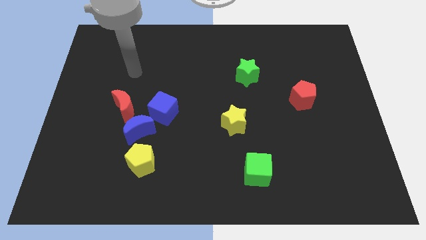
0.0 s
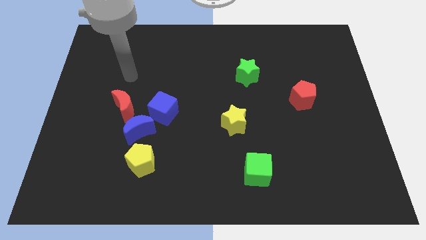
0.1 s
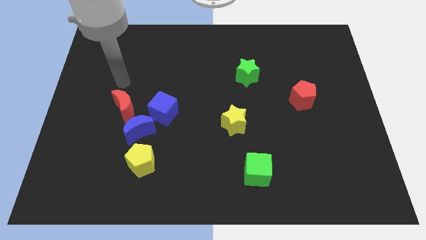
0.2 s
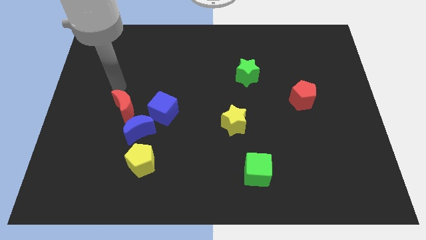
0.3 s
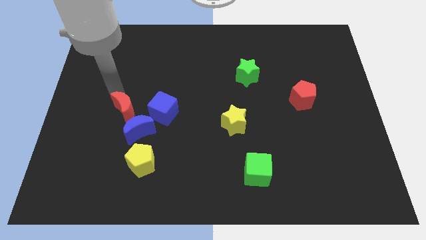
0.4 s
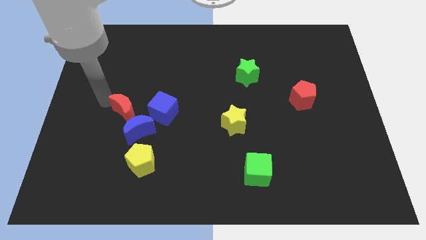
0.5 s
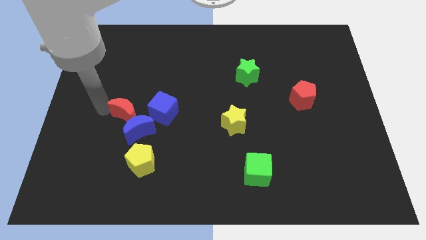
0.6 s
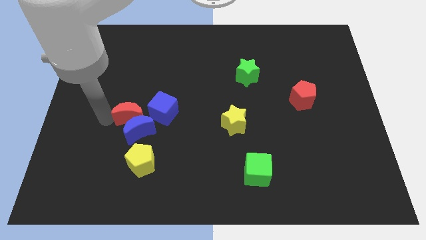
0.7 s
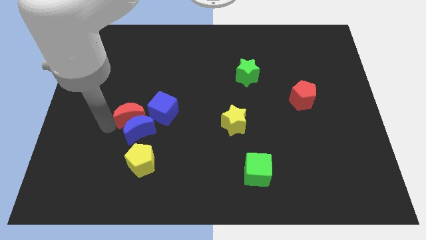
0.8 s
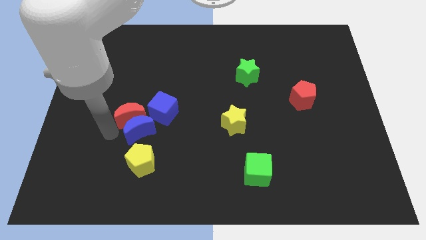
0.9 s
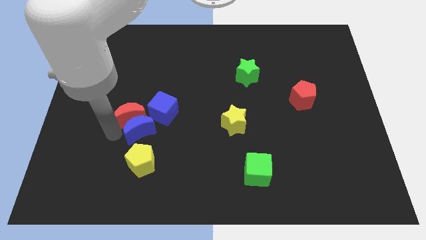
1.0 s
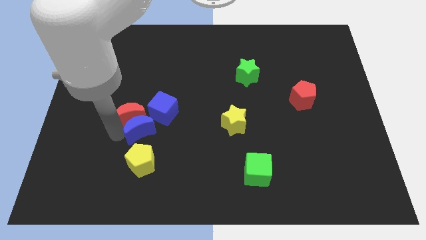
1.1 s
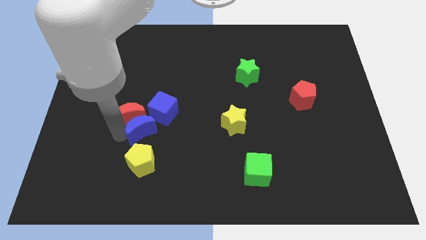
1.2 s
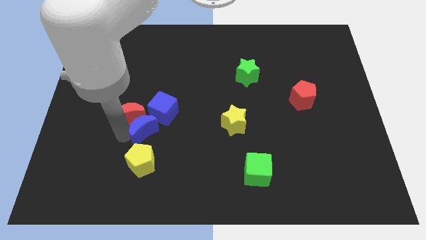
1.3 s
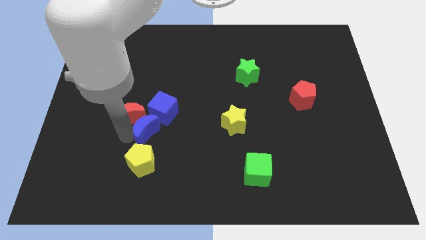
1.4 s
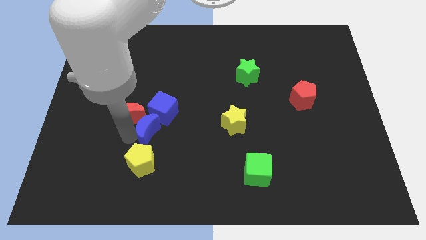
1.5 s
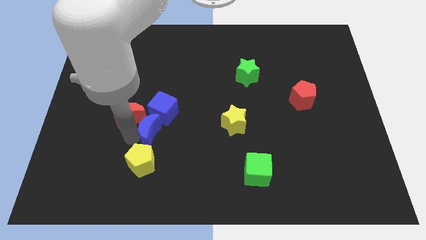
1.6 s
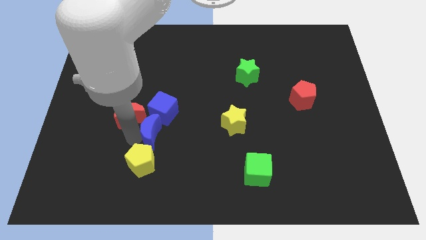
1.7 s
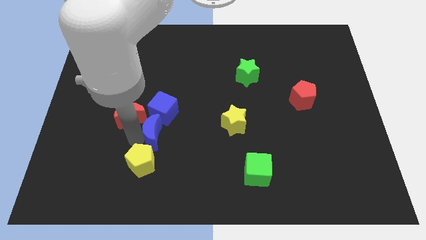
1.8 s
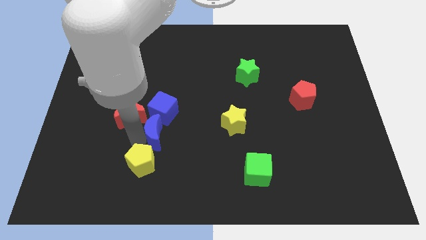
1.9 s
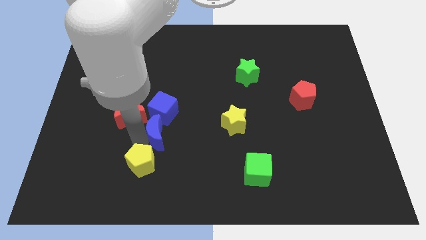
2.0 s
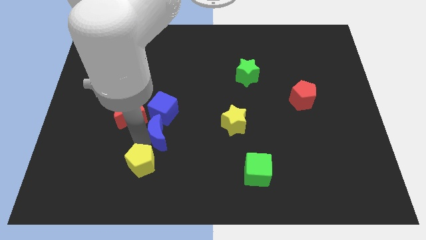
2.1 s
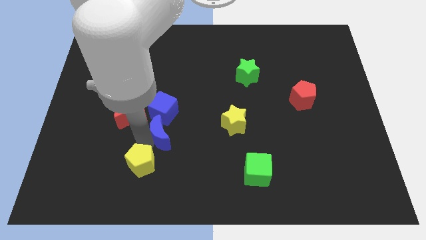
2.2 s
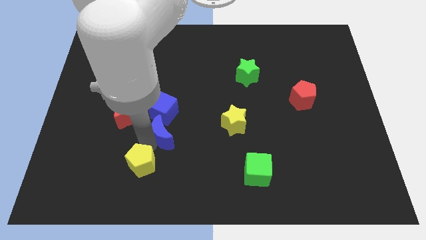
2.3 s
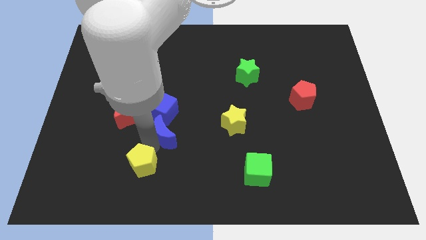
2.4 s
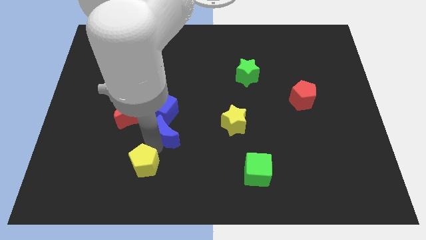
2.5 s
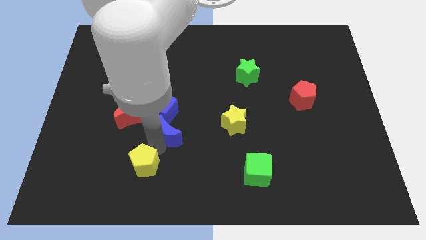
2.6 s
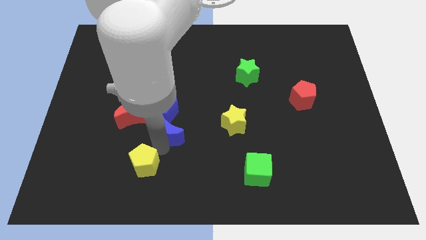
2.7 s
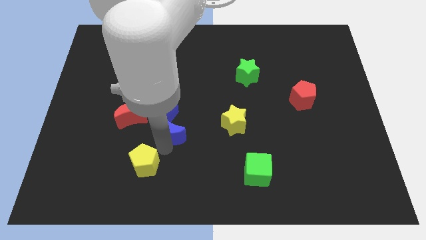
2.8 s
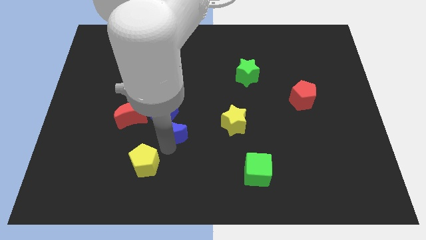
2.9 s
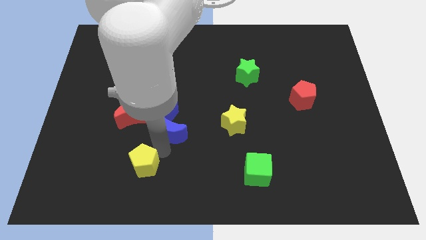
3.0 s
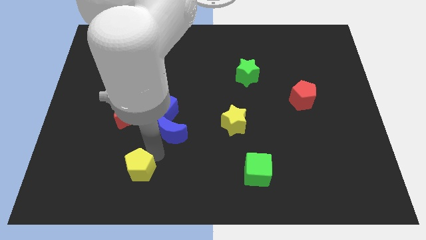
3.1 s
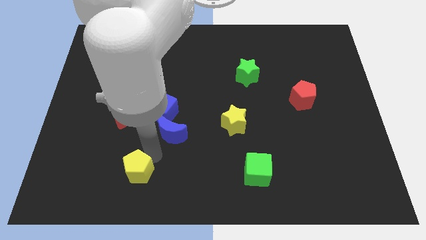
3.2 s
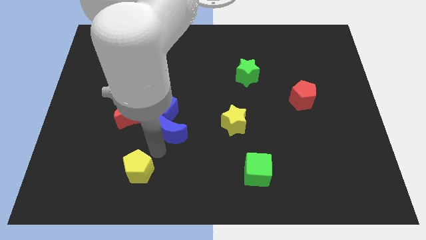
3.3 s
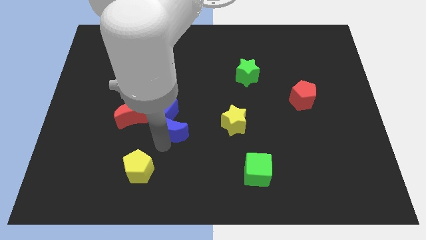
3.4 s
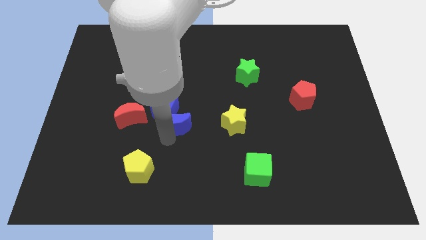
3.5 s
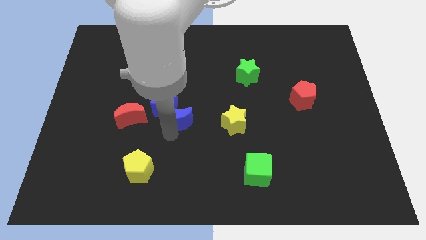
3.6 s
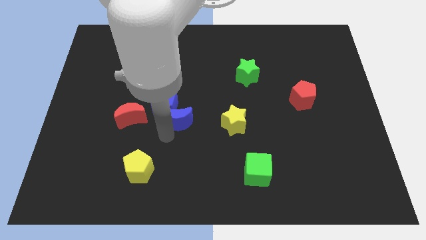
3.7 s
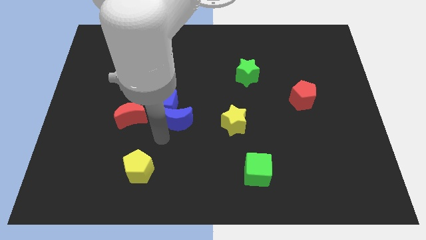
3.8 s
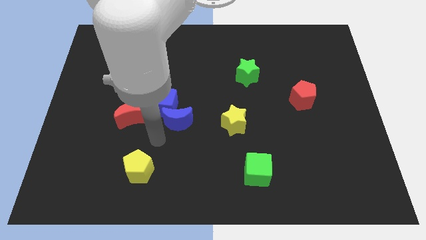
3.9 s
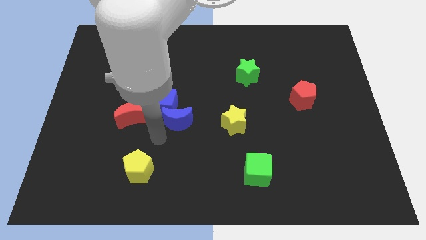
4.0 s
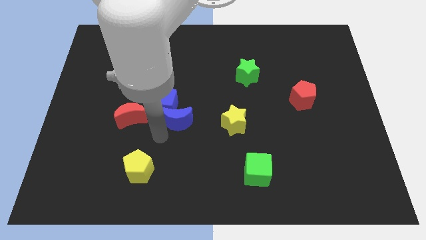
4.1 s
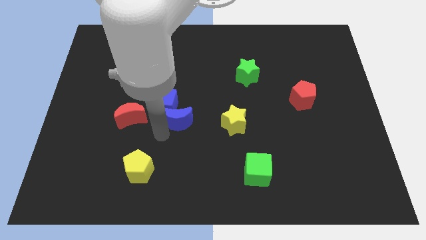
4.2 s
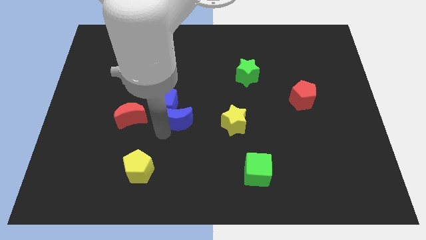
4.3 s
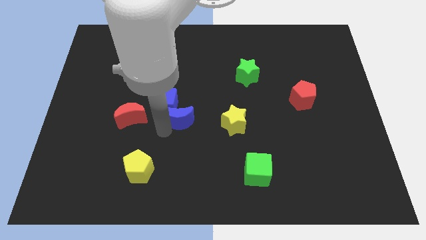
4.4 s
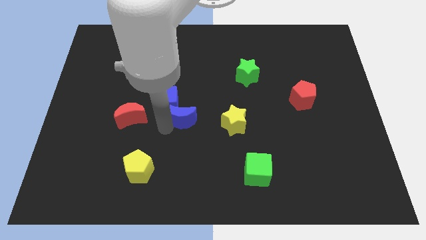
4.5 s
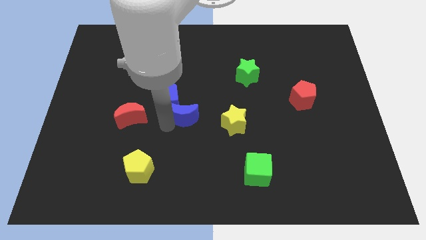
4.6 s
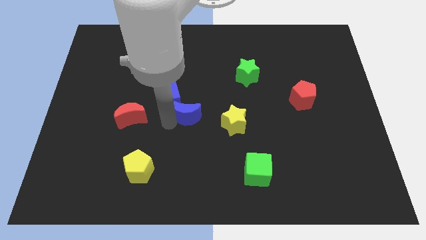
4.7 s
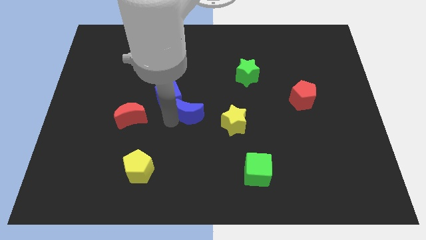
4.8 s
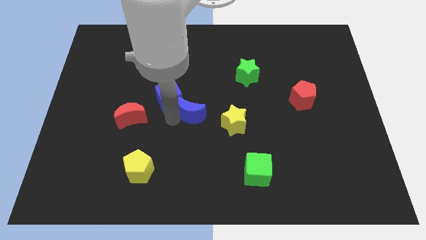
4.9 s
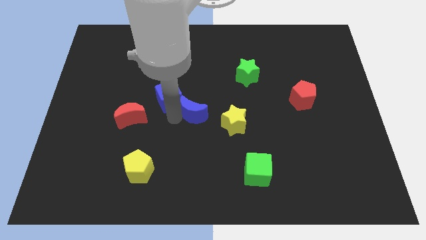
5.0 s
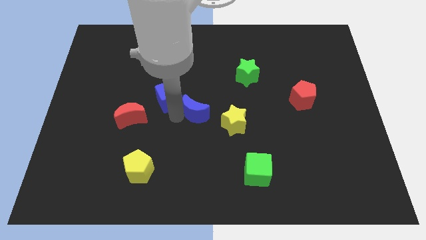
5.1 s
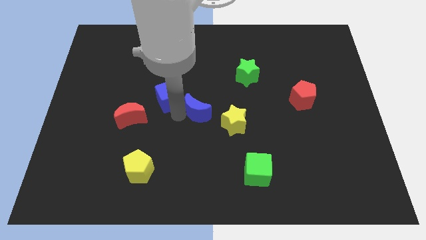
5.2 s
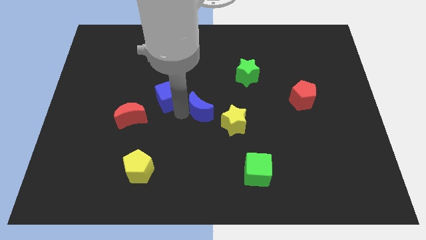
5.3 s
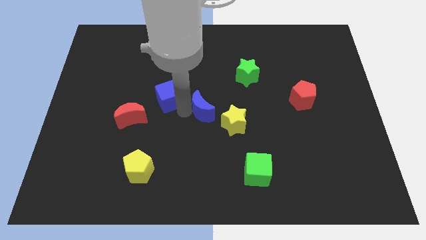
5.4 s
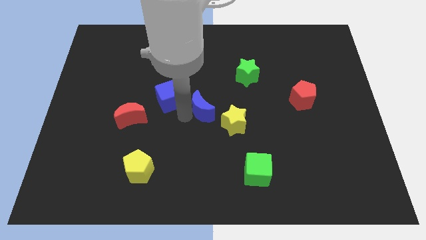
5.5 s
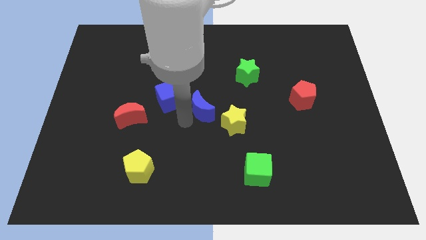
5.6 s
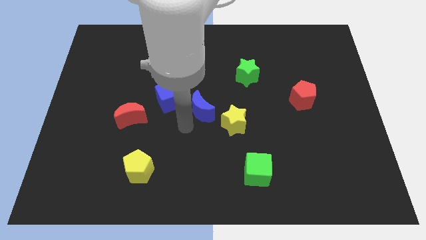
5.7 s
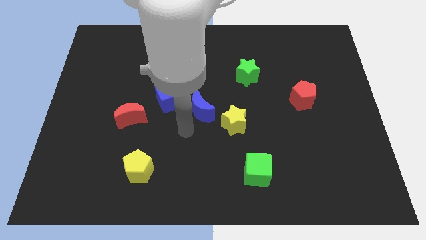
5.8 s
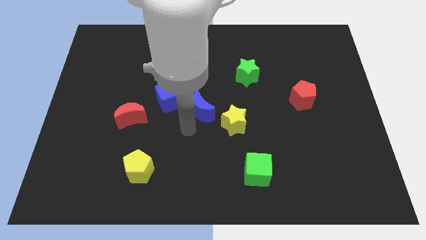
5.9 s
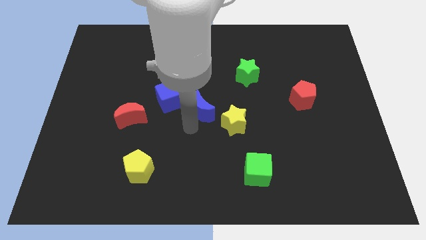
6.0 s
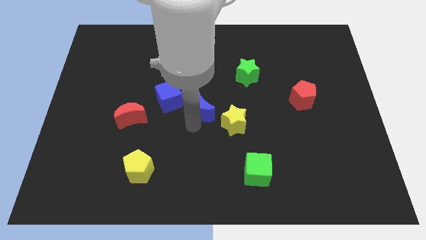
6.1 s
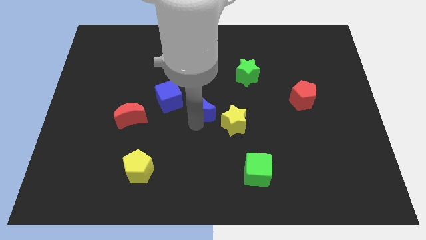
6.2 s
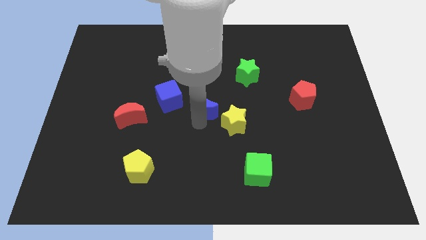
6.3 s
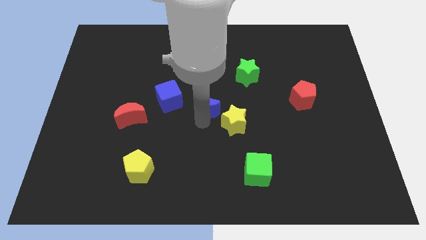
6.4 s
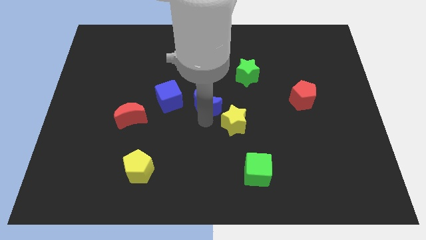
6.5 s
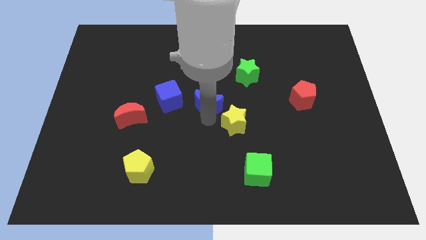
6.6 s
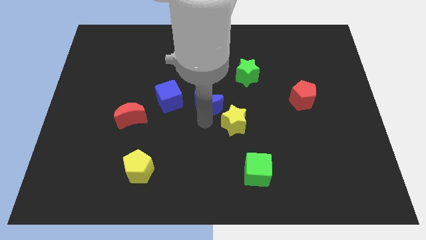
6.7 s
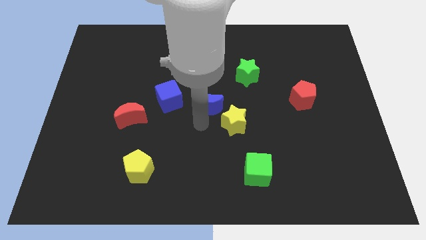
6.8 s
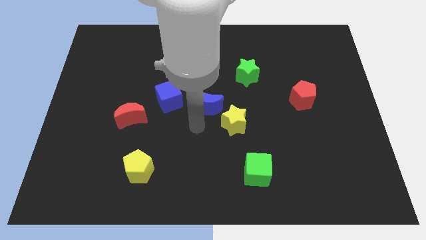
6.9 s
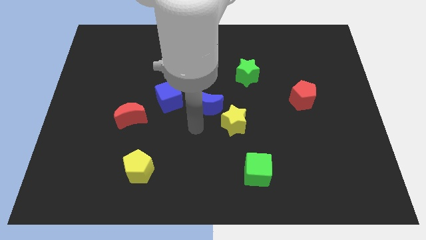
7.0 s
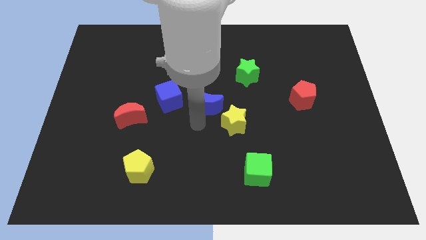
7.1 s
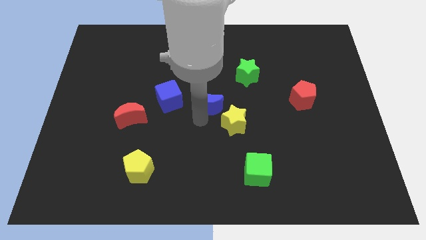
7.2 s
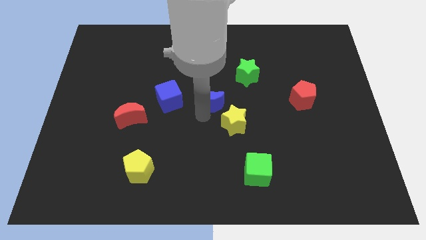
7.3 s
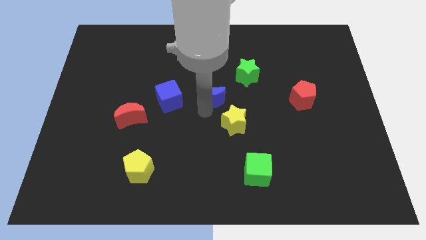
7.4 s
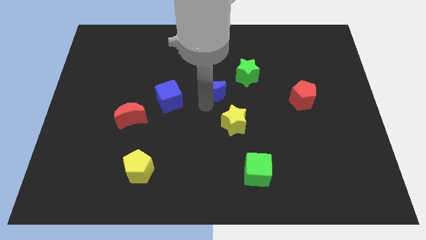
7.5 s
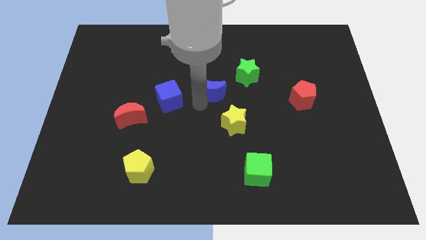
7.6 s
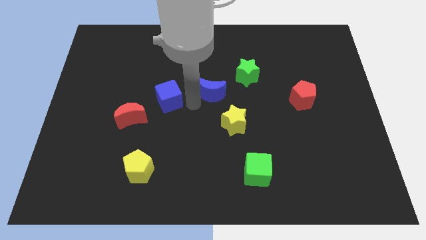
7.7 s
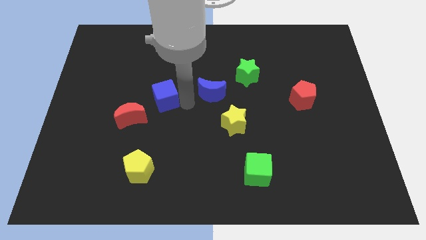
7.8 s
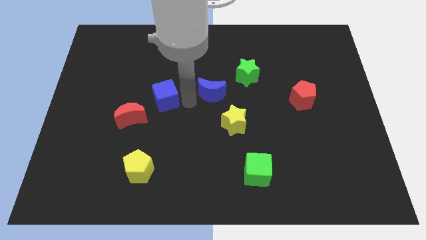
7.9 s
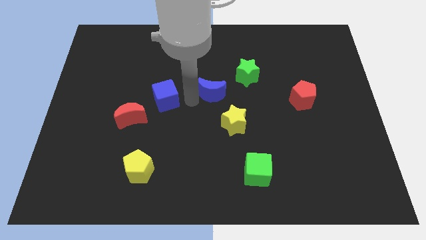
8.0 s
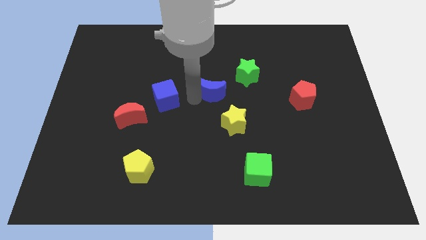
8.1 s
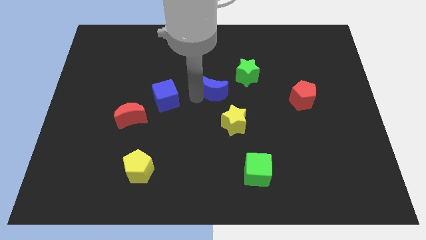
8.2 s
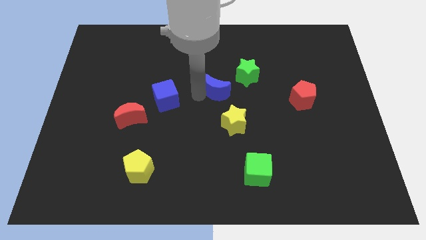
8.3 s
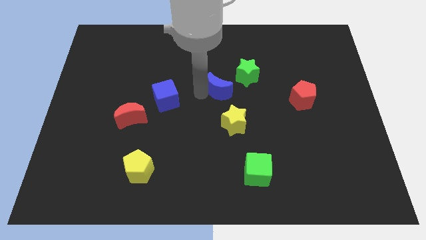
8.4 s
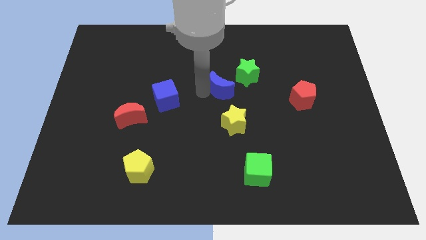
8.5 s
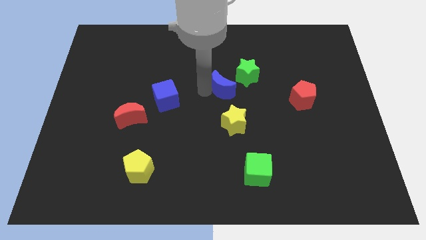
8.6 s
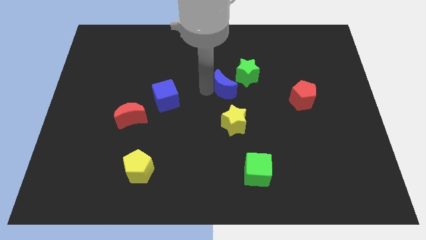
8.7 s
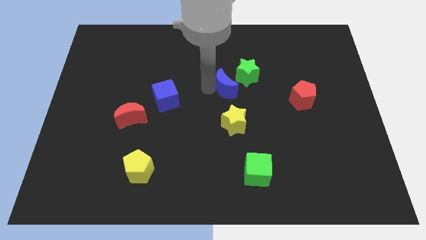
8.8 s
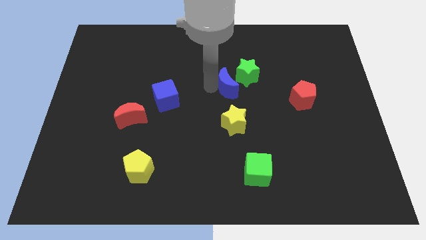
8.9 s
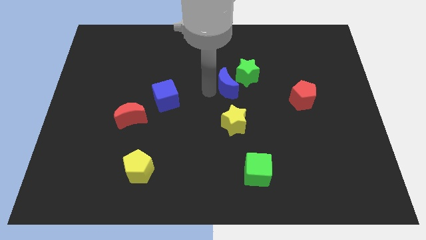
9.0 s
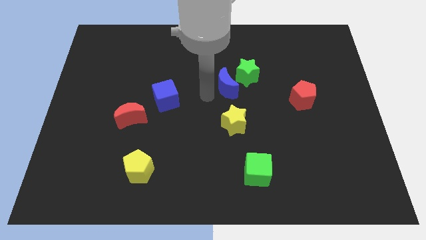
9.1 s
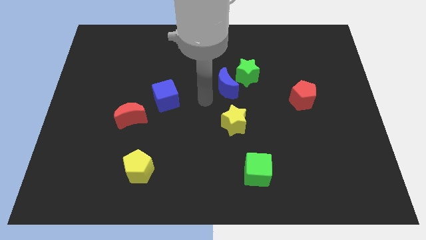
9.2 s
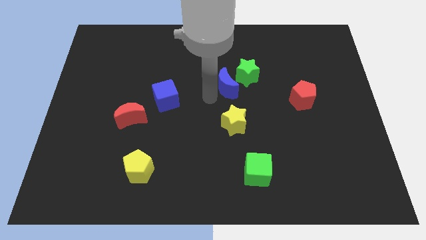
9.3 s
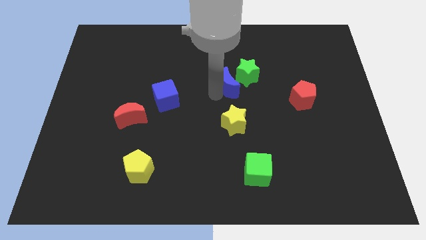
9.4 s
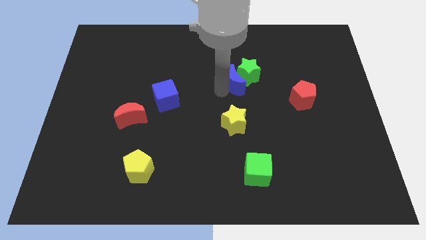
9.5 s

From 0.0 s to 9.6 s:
put the blue moon to the green star
